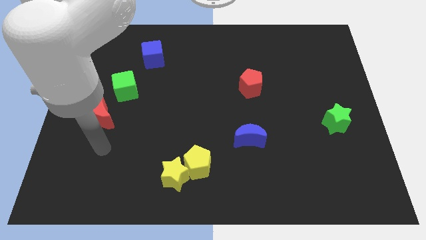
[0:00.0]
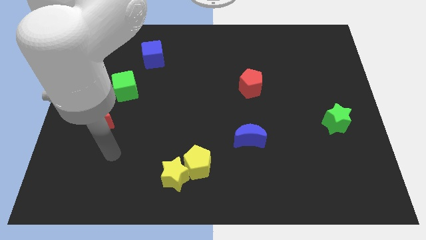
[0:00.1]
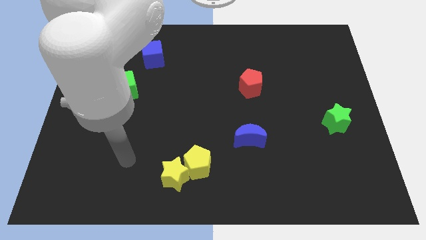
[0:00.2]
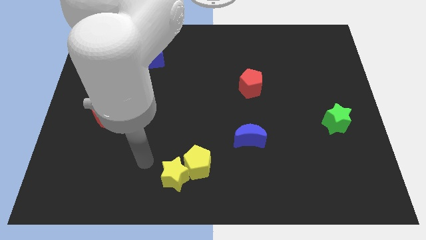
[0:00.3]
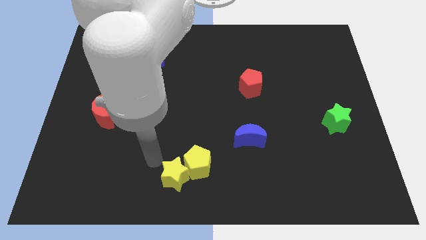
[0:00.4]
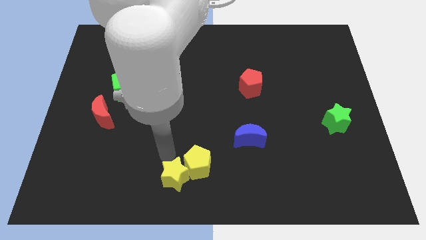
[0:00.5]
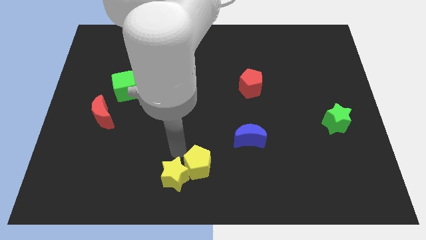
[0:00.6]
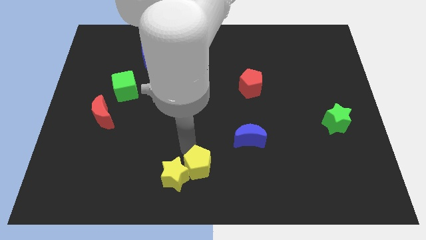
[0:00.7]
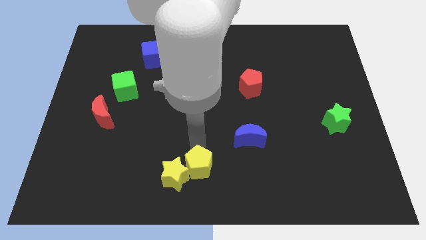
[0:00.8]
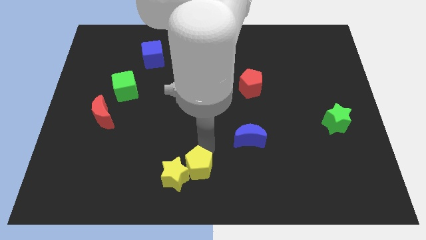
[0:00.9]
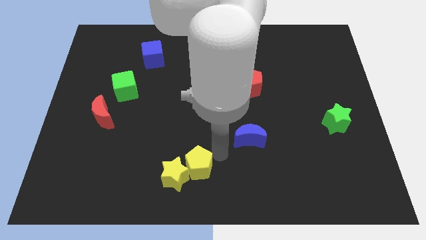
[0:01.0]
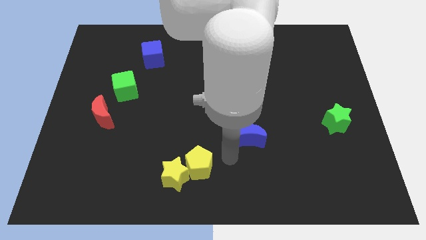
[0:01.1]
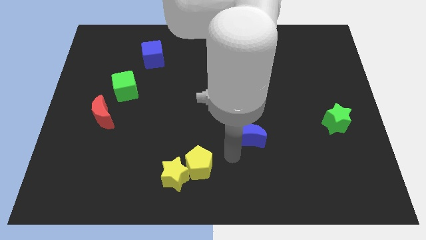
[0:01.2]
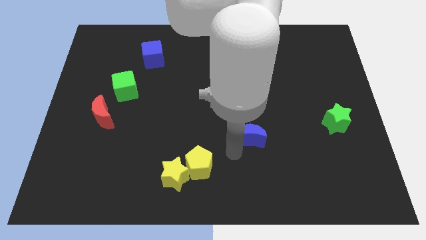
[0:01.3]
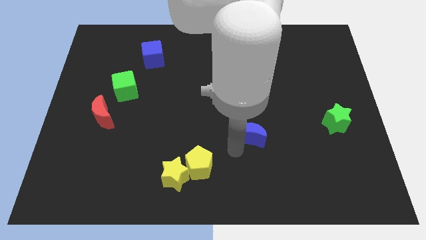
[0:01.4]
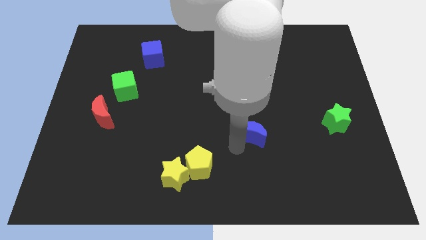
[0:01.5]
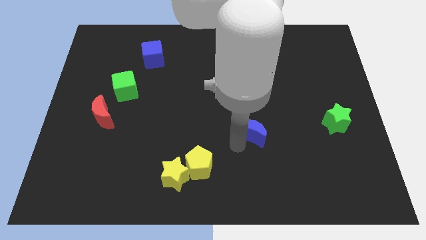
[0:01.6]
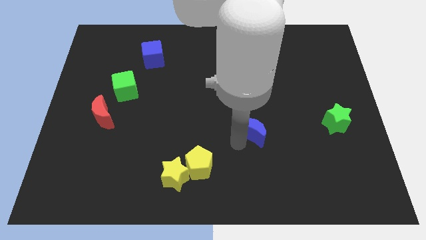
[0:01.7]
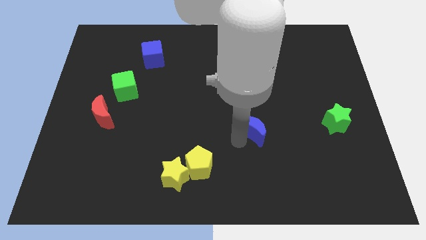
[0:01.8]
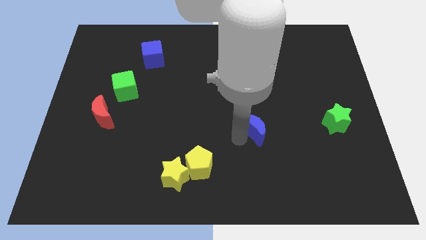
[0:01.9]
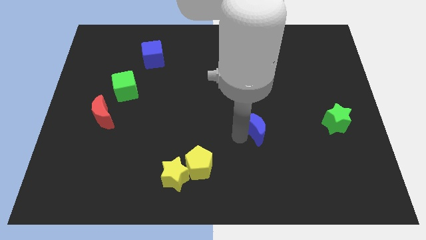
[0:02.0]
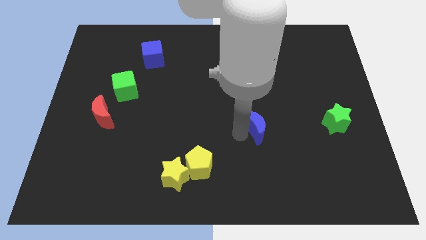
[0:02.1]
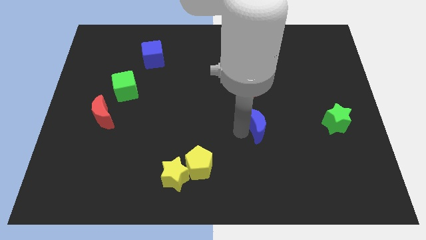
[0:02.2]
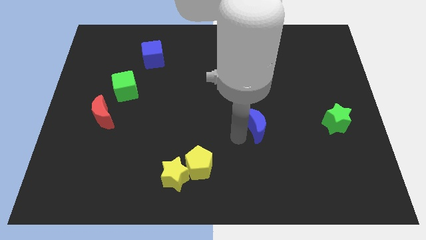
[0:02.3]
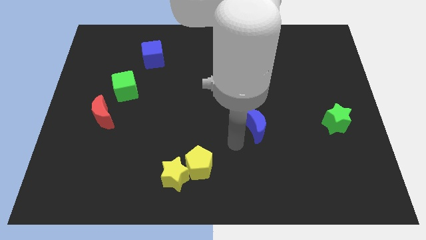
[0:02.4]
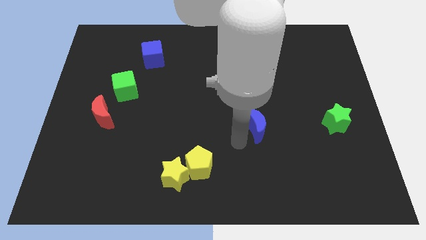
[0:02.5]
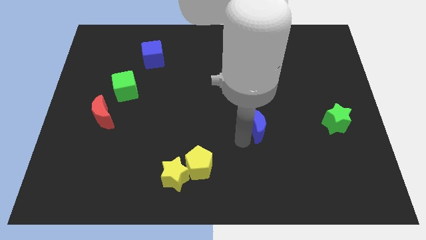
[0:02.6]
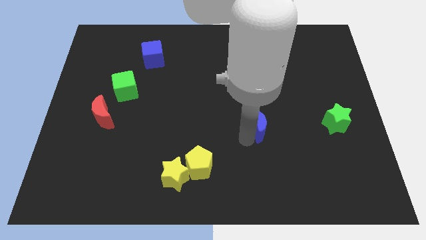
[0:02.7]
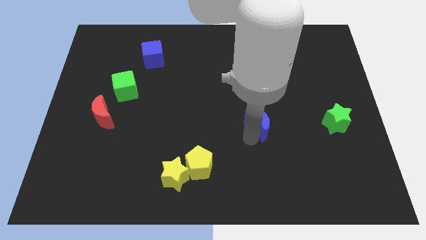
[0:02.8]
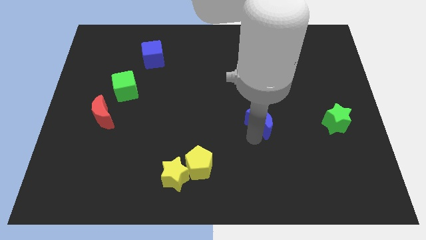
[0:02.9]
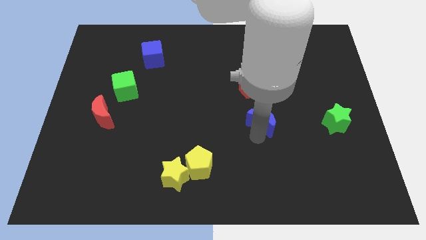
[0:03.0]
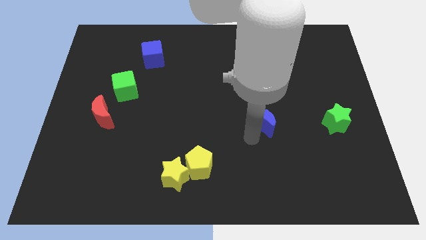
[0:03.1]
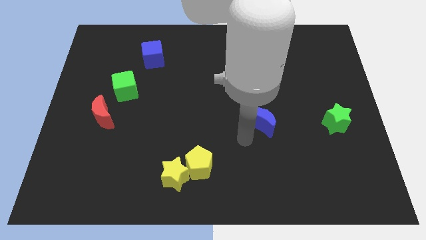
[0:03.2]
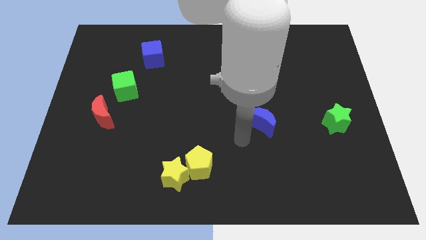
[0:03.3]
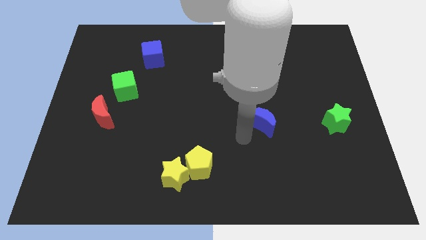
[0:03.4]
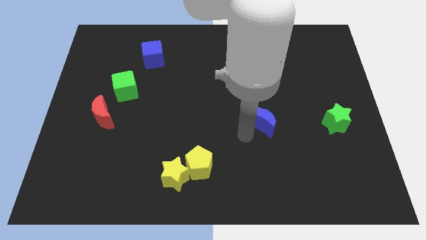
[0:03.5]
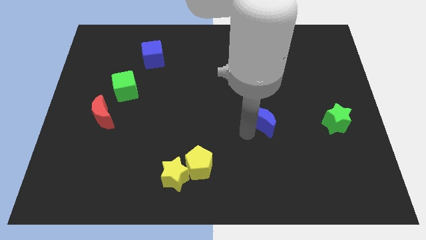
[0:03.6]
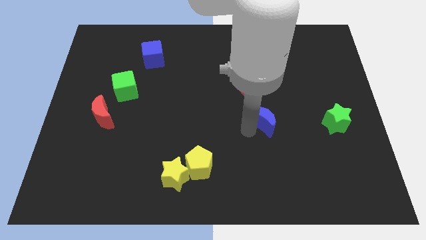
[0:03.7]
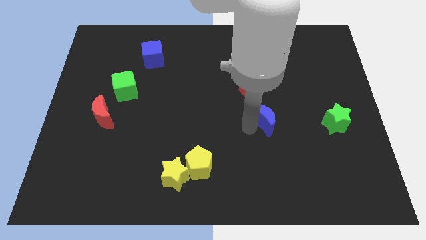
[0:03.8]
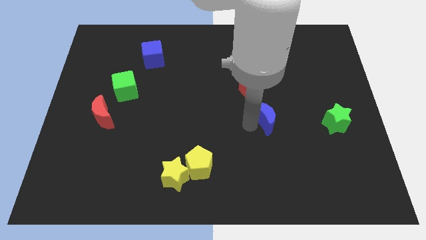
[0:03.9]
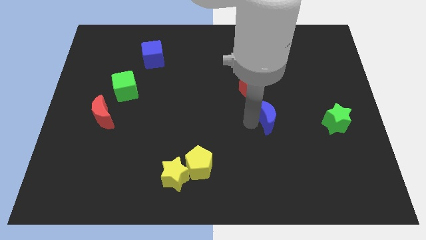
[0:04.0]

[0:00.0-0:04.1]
push the blue moon up and to the right diagonally a bit

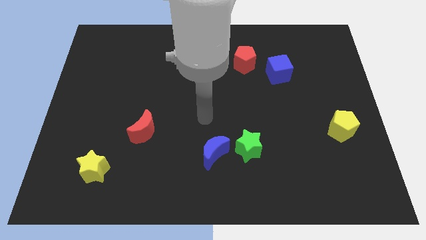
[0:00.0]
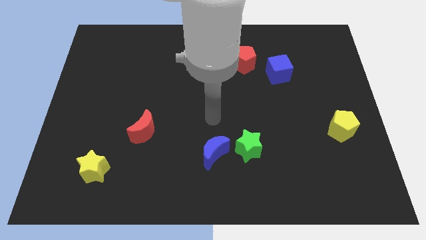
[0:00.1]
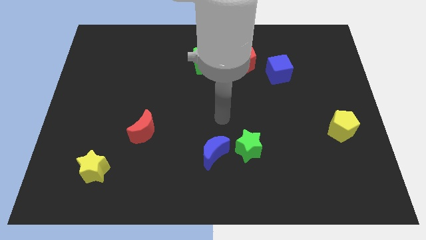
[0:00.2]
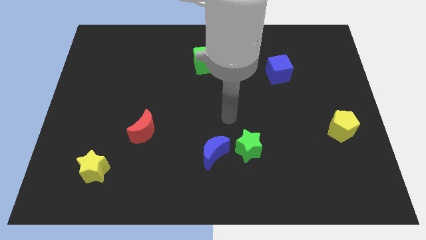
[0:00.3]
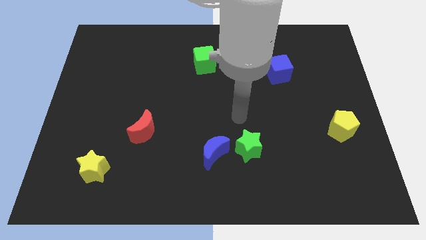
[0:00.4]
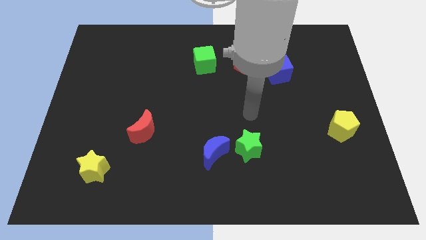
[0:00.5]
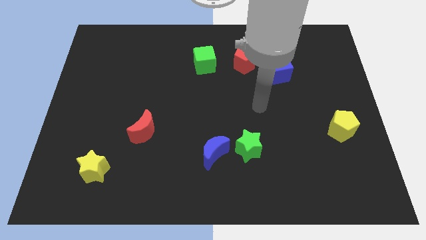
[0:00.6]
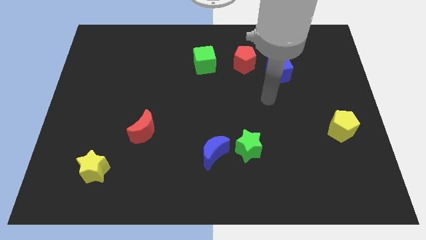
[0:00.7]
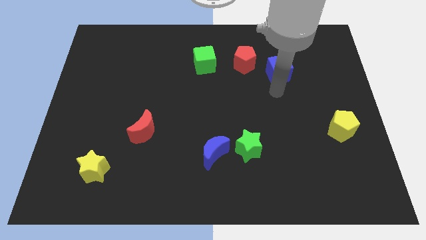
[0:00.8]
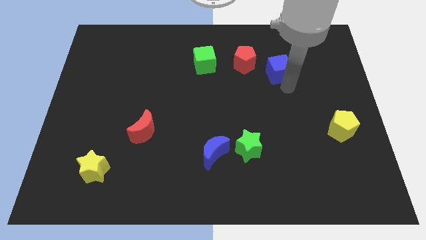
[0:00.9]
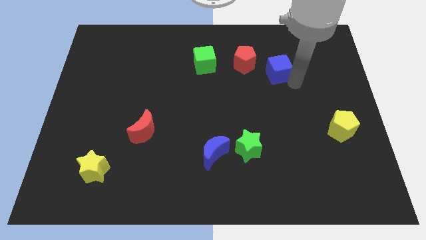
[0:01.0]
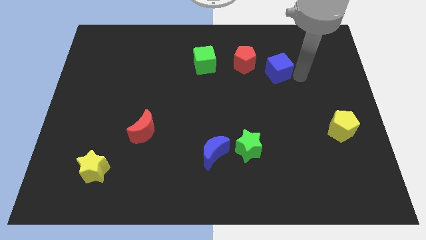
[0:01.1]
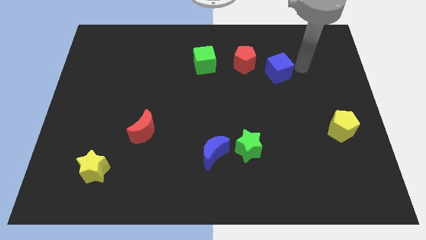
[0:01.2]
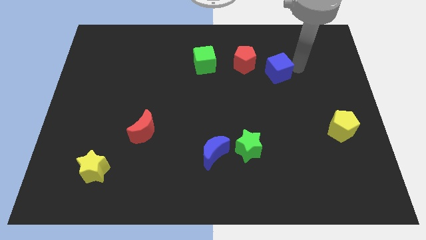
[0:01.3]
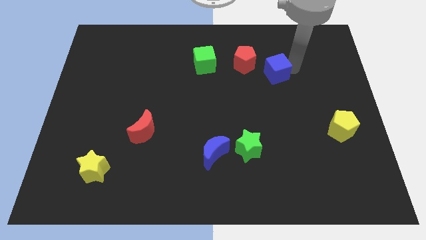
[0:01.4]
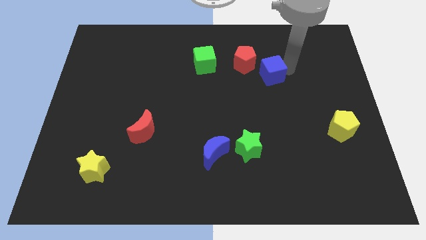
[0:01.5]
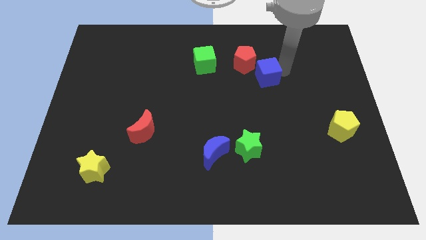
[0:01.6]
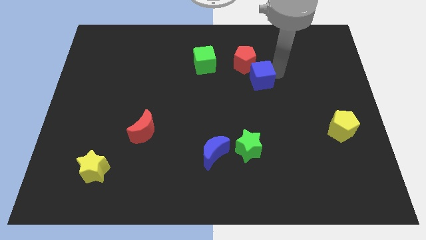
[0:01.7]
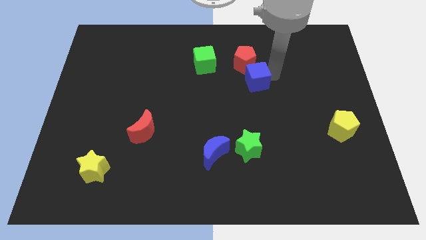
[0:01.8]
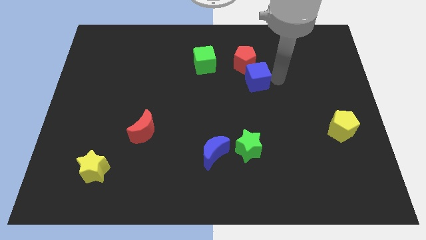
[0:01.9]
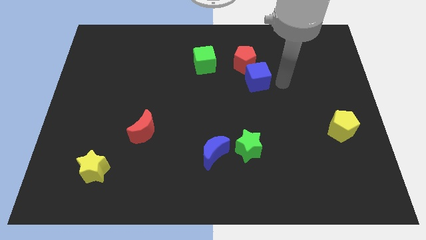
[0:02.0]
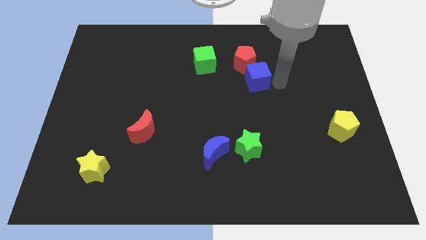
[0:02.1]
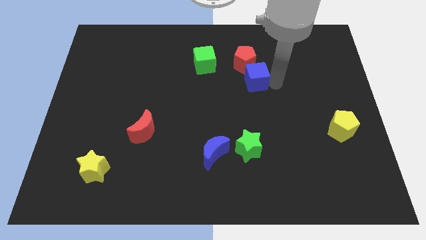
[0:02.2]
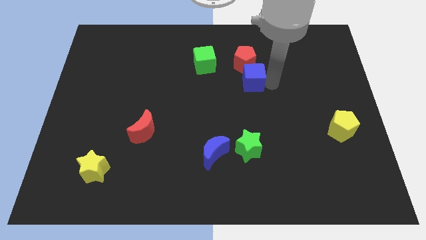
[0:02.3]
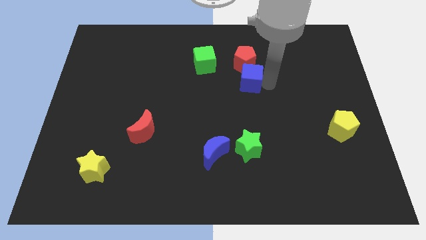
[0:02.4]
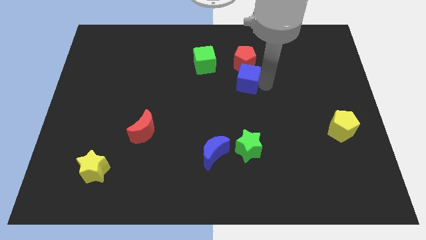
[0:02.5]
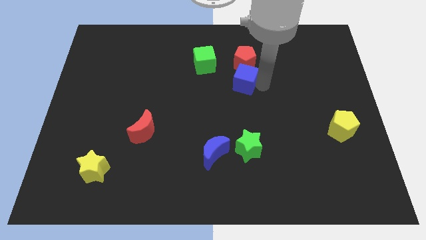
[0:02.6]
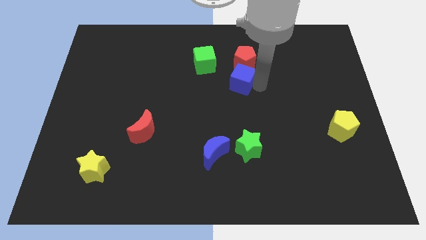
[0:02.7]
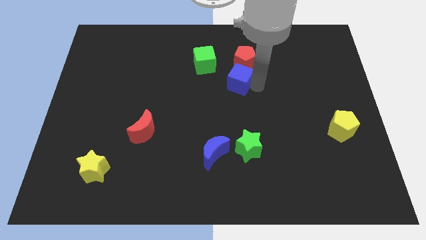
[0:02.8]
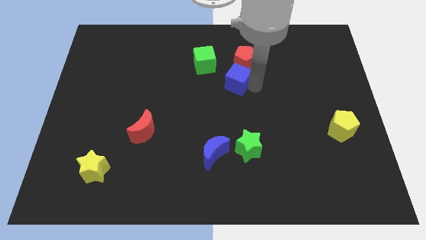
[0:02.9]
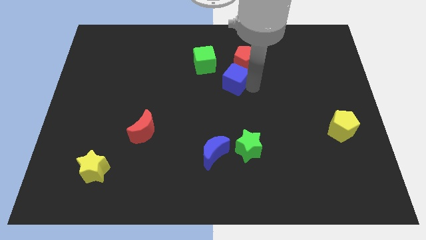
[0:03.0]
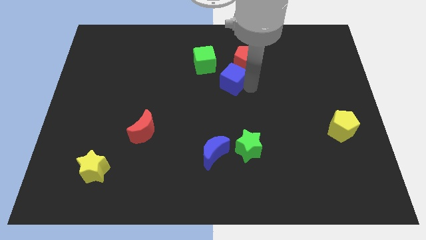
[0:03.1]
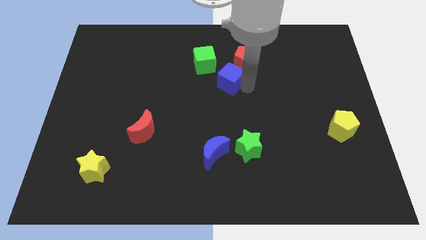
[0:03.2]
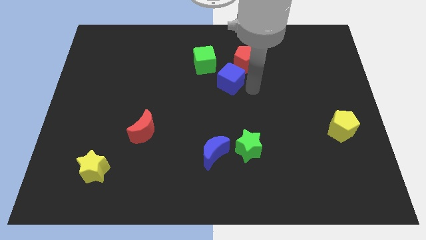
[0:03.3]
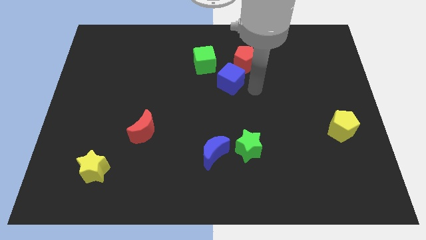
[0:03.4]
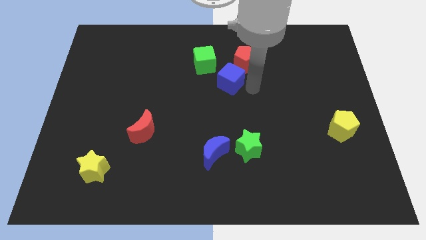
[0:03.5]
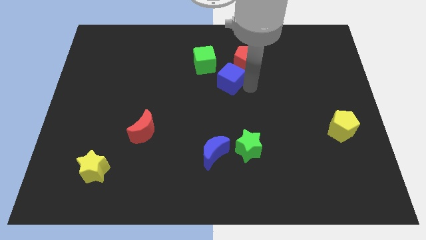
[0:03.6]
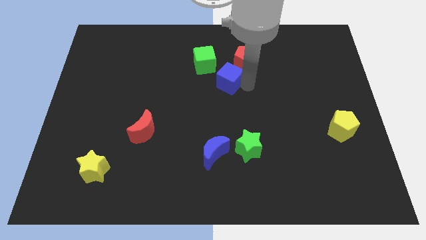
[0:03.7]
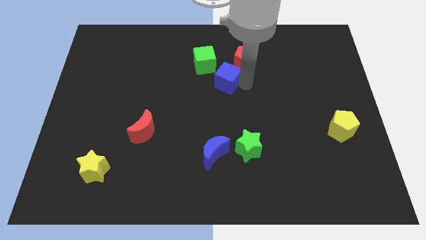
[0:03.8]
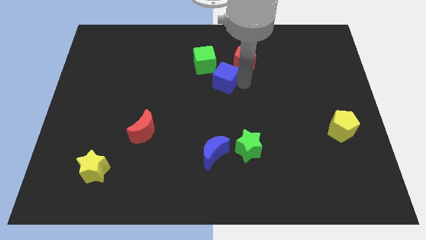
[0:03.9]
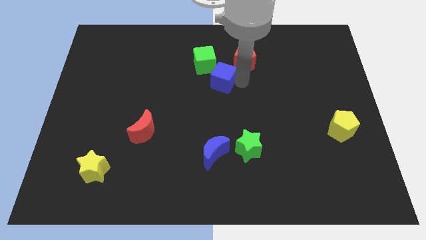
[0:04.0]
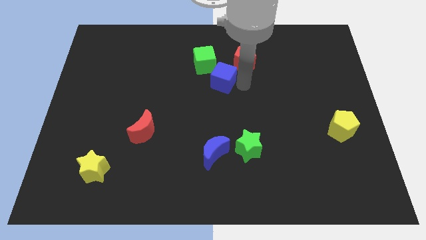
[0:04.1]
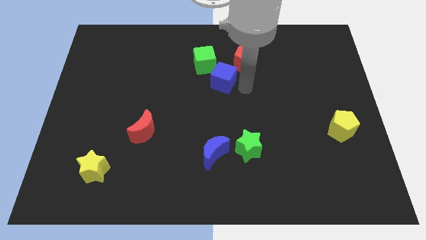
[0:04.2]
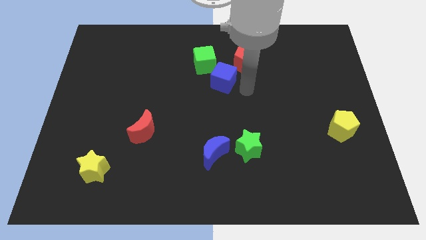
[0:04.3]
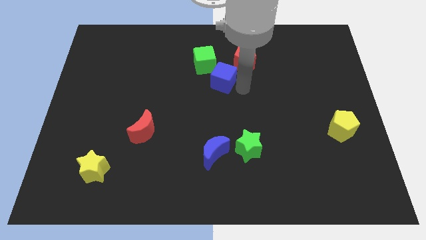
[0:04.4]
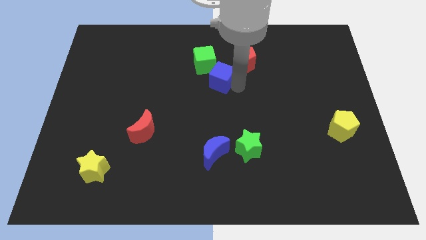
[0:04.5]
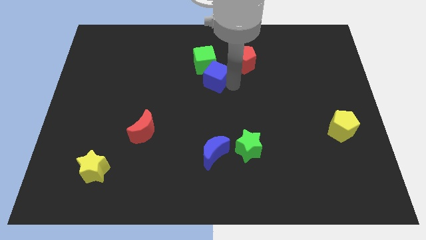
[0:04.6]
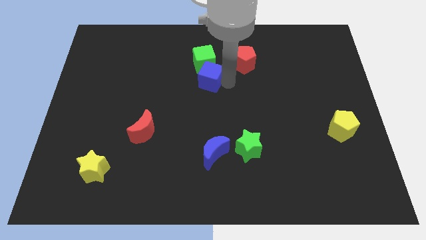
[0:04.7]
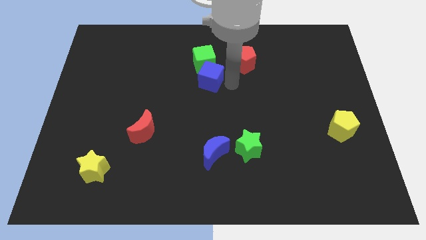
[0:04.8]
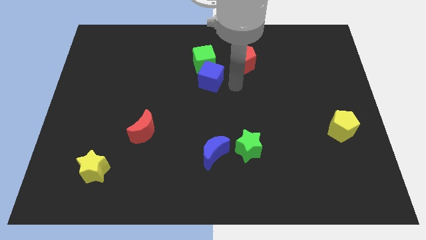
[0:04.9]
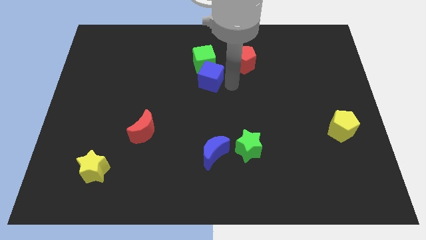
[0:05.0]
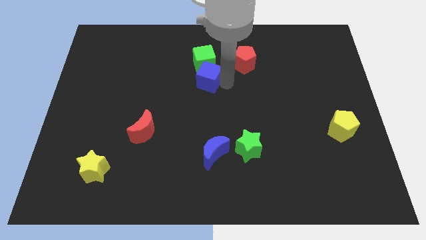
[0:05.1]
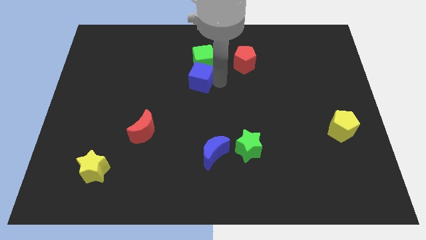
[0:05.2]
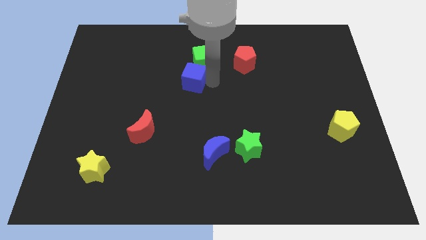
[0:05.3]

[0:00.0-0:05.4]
push the blue cube to the left
